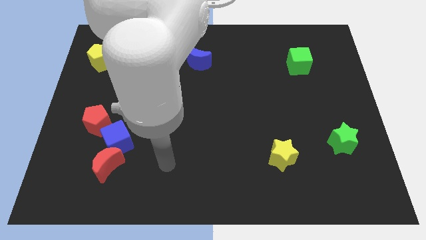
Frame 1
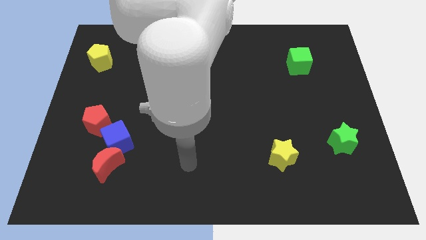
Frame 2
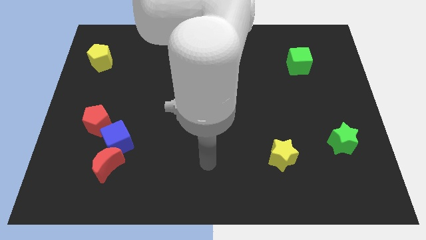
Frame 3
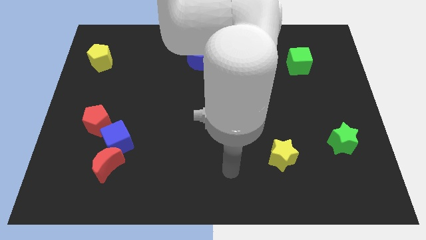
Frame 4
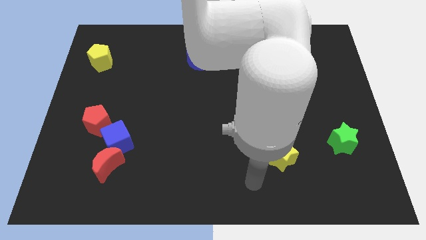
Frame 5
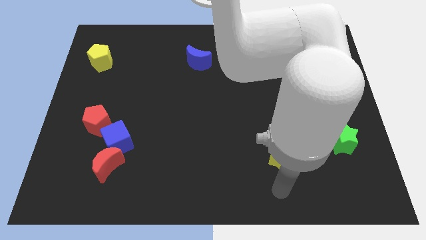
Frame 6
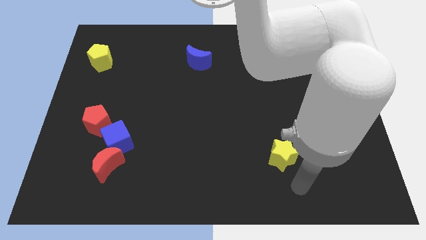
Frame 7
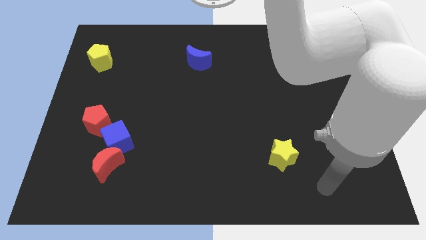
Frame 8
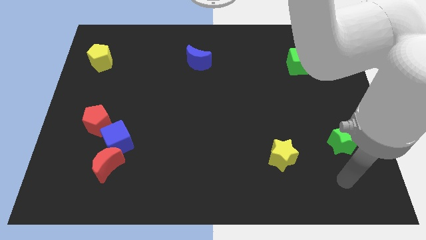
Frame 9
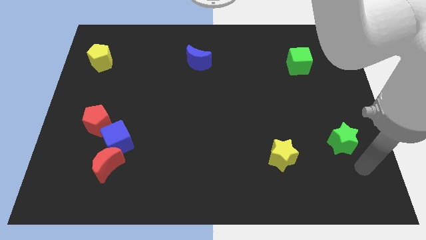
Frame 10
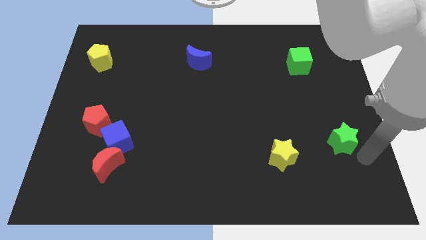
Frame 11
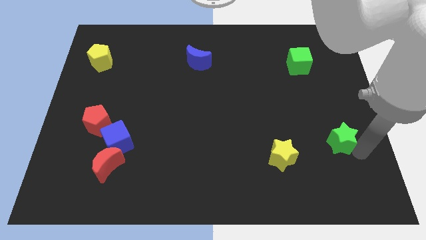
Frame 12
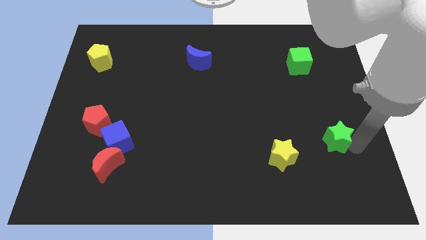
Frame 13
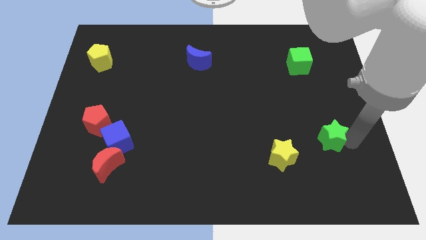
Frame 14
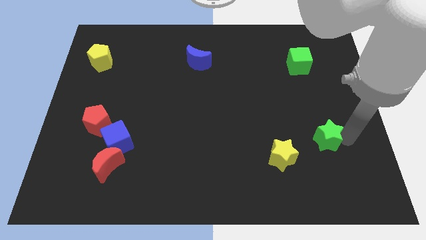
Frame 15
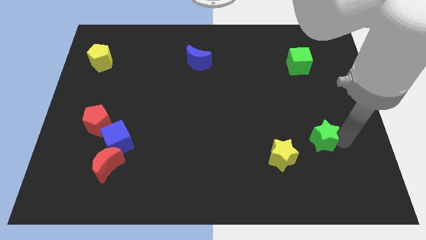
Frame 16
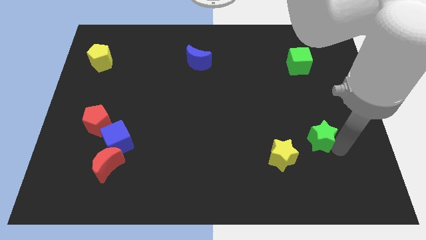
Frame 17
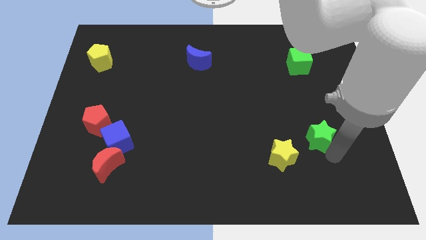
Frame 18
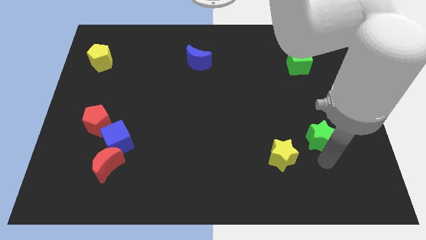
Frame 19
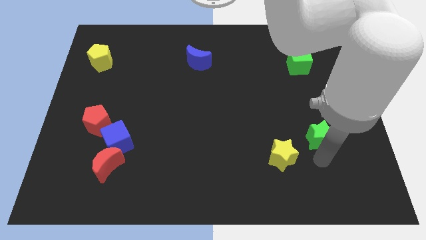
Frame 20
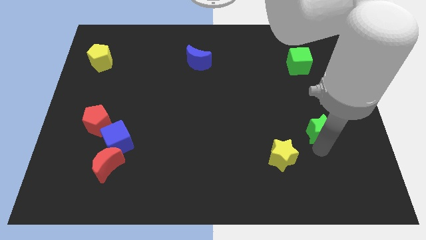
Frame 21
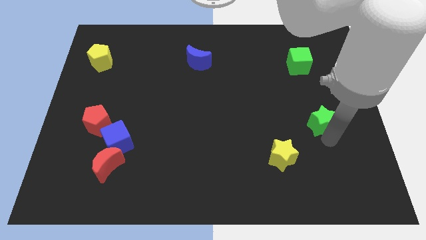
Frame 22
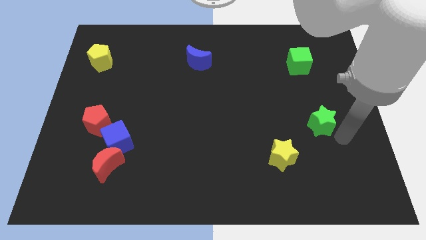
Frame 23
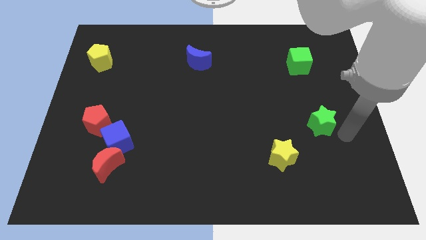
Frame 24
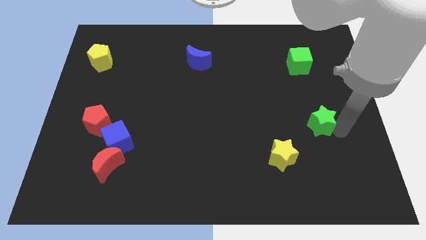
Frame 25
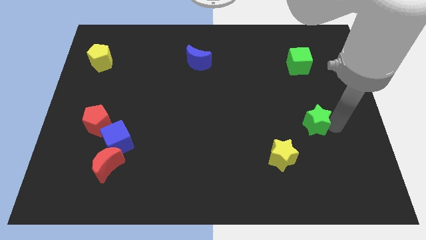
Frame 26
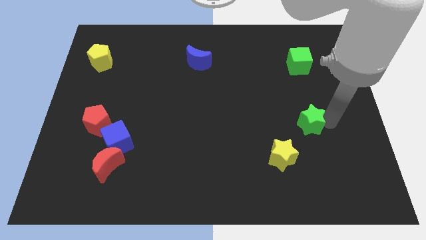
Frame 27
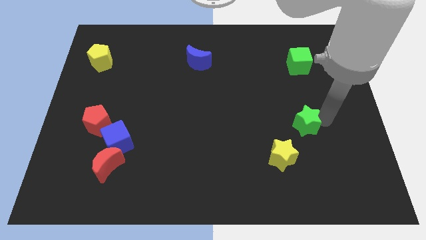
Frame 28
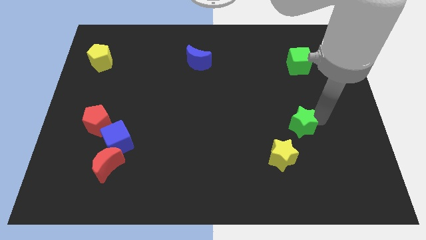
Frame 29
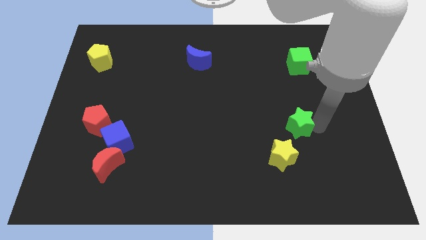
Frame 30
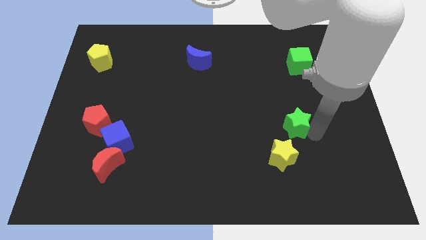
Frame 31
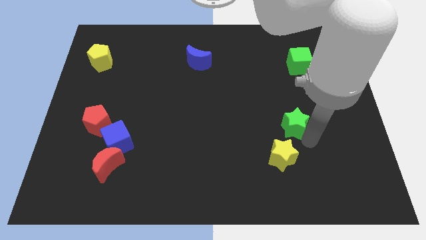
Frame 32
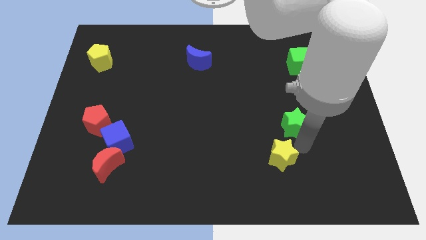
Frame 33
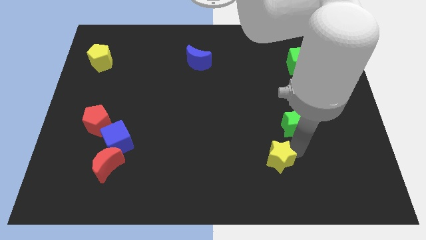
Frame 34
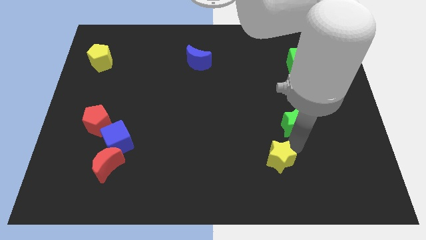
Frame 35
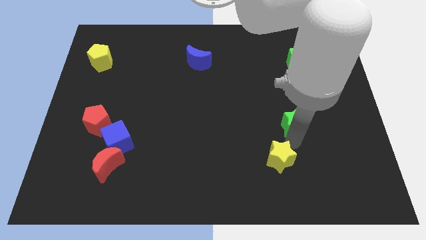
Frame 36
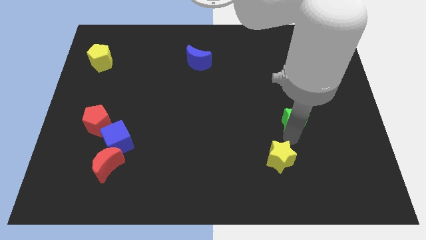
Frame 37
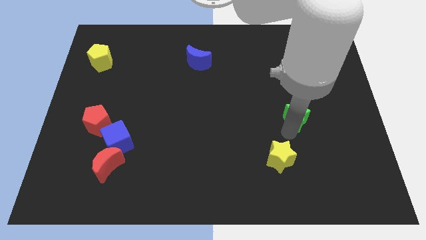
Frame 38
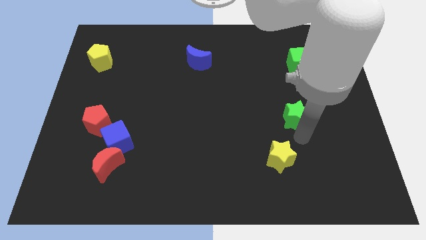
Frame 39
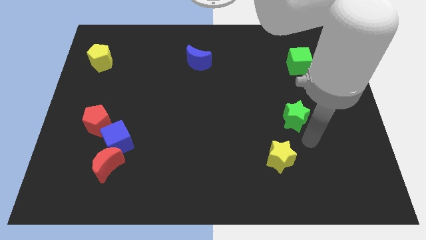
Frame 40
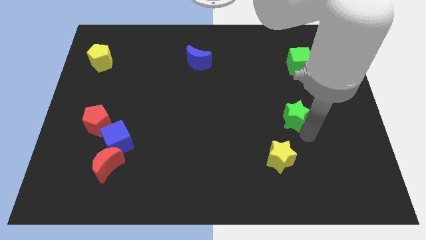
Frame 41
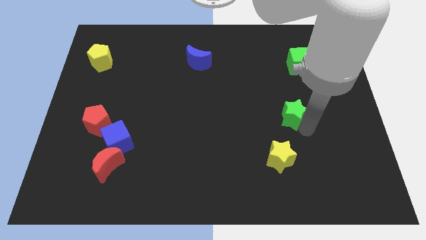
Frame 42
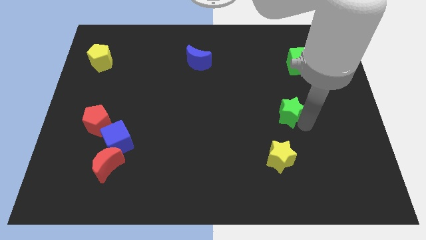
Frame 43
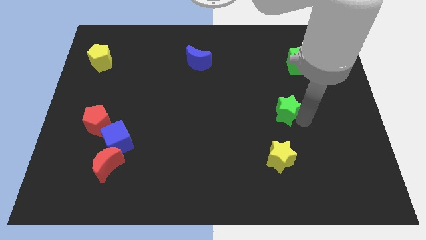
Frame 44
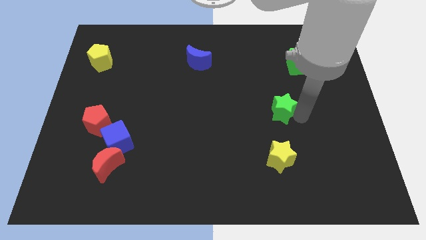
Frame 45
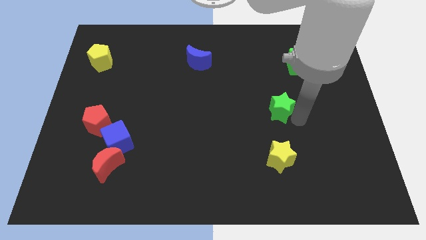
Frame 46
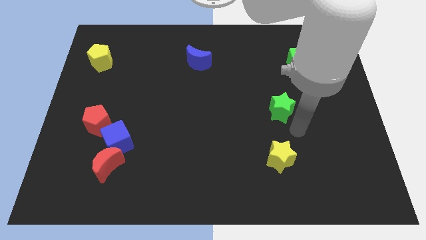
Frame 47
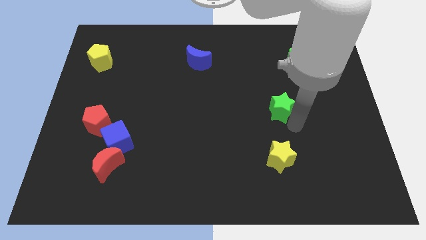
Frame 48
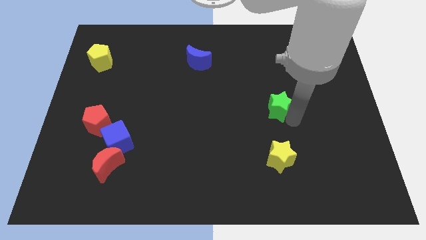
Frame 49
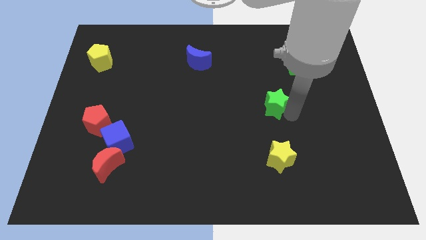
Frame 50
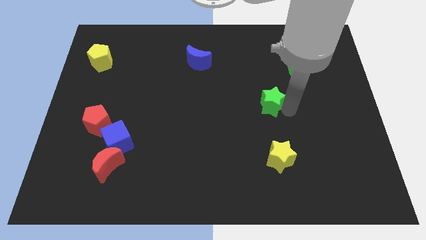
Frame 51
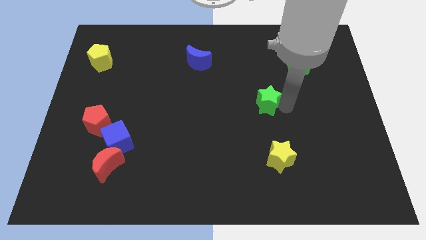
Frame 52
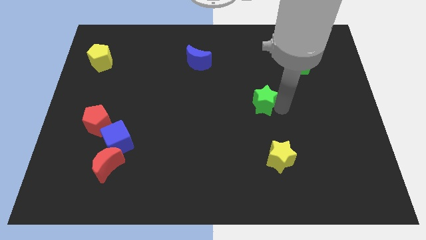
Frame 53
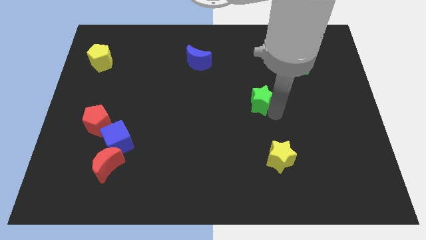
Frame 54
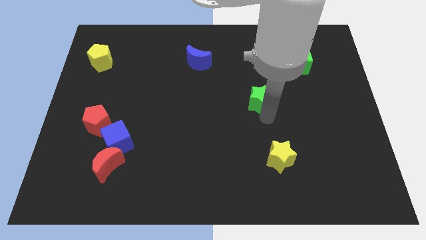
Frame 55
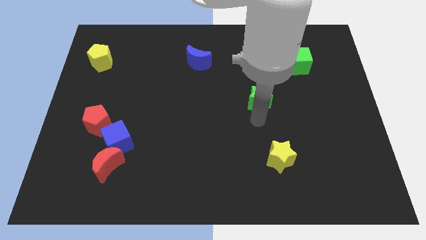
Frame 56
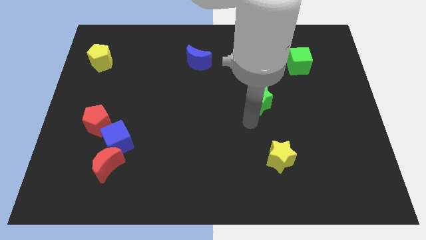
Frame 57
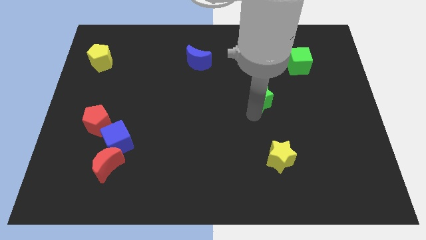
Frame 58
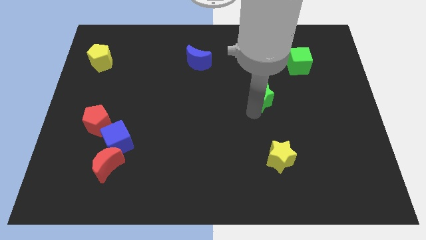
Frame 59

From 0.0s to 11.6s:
slide the green star upwards and to the left diagonally

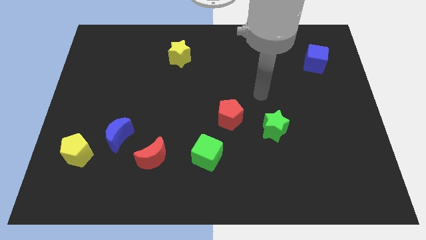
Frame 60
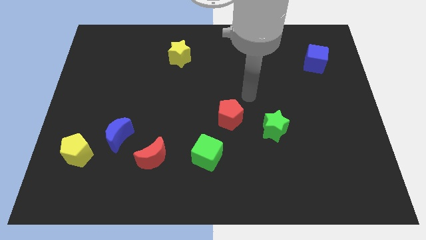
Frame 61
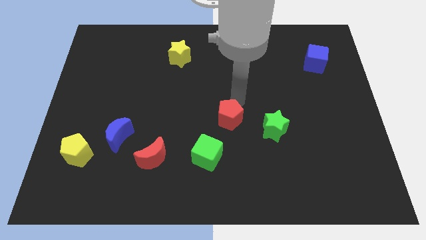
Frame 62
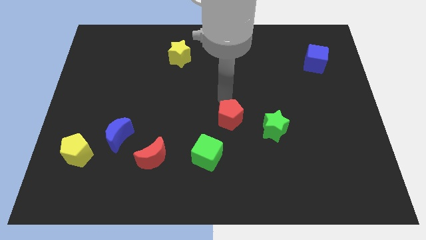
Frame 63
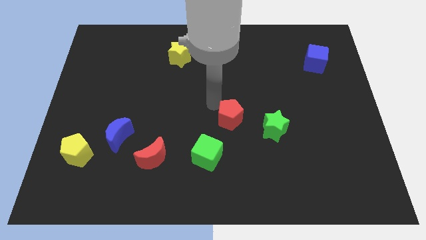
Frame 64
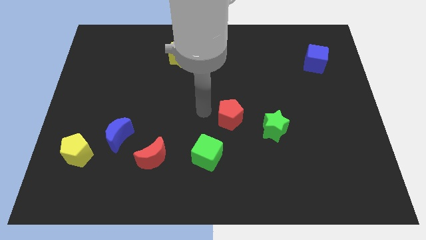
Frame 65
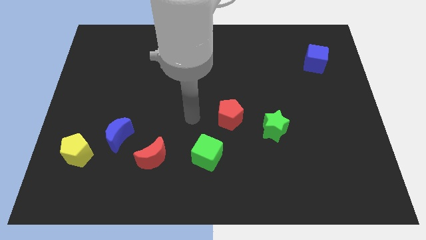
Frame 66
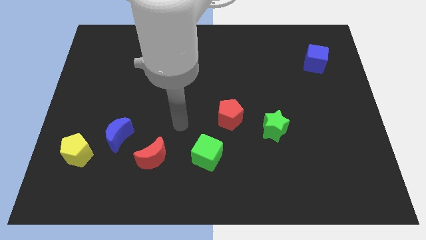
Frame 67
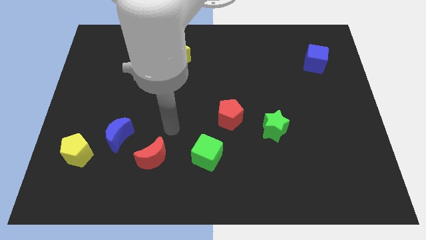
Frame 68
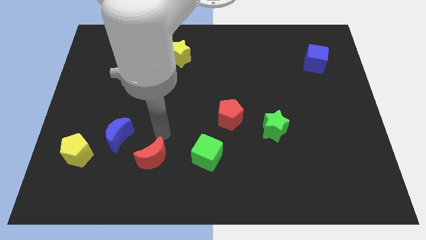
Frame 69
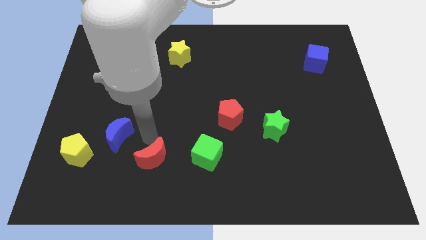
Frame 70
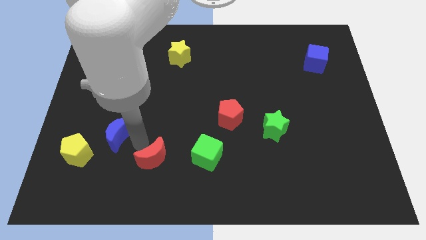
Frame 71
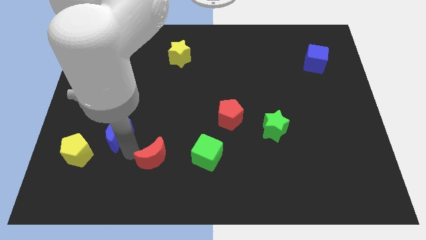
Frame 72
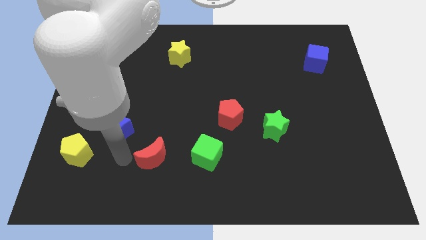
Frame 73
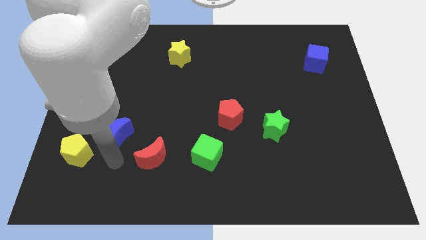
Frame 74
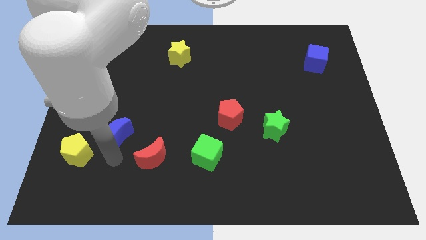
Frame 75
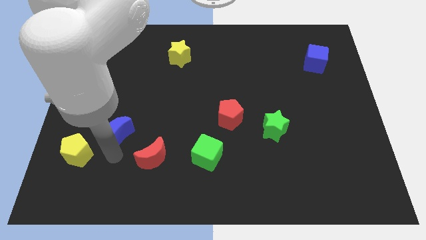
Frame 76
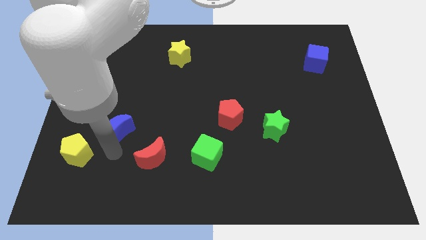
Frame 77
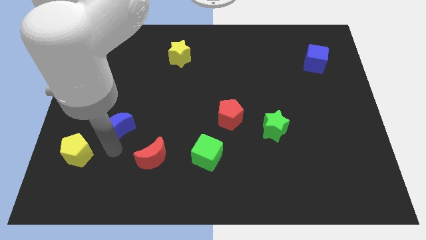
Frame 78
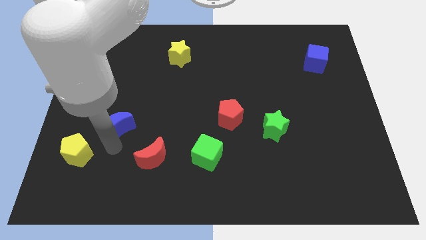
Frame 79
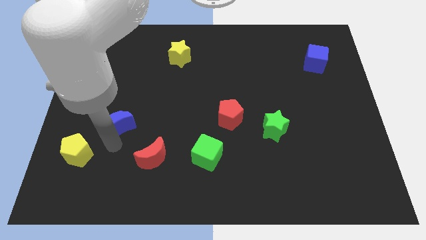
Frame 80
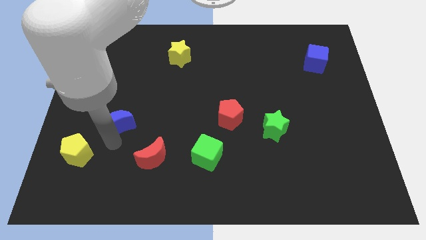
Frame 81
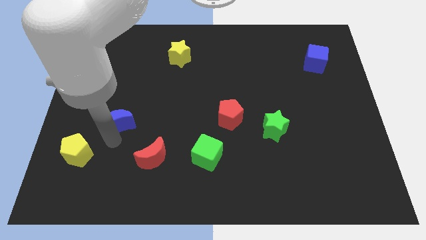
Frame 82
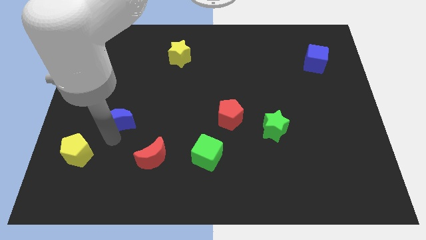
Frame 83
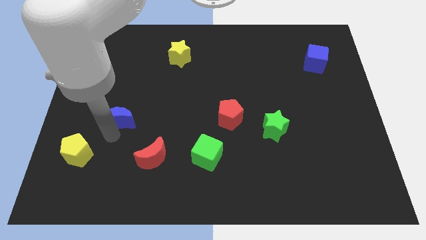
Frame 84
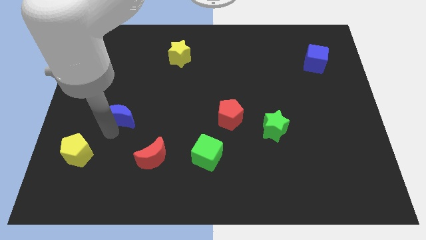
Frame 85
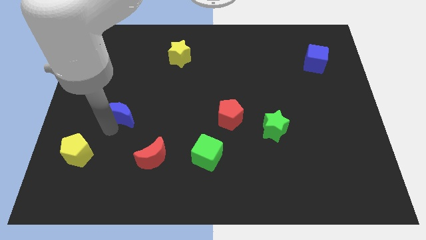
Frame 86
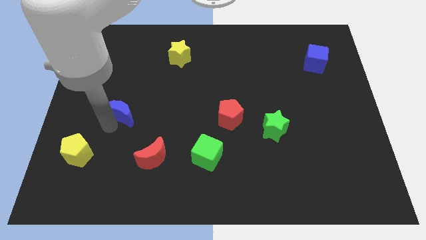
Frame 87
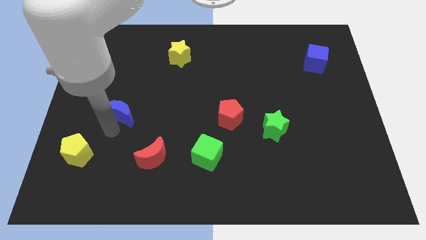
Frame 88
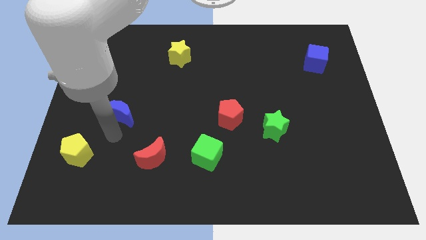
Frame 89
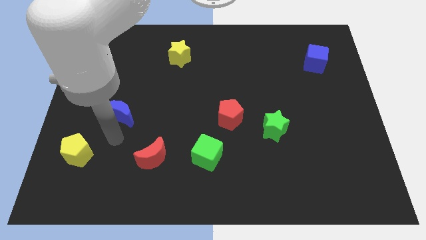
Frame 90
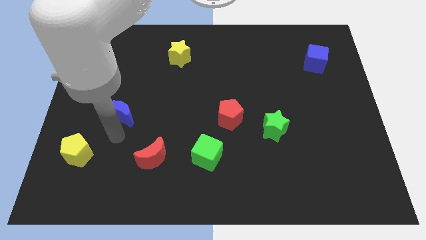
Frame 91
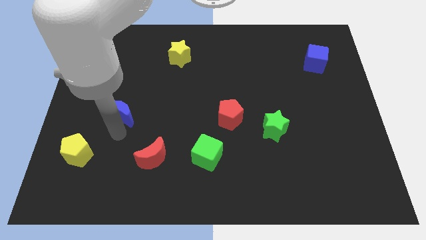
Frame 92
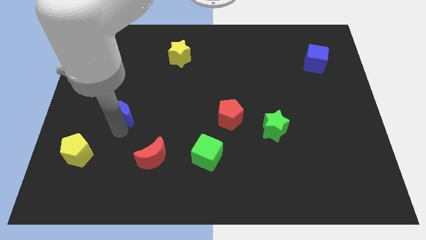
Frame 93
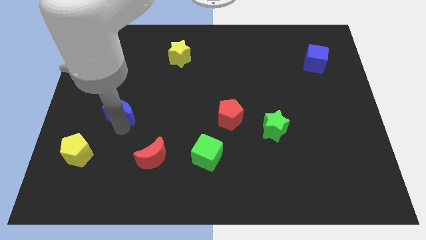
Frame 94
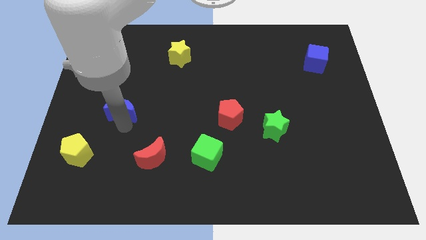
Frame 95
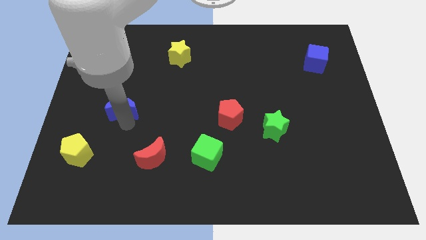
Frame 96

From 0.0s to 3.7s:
slightly push the blue moon upwards
